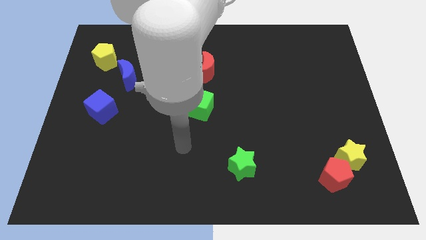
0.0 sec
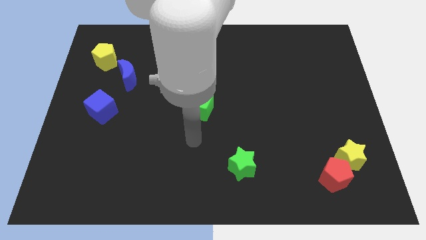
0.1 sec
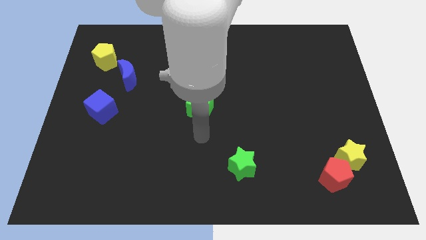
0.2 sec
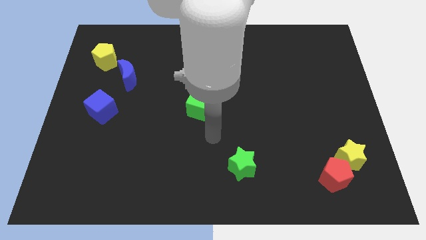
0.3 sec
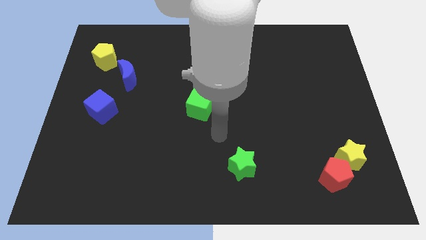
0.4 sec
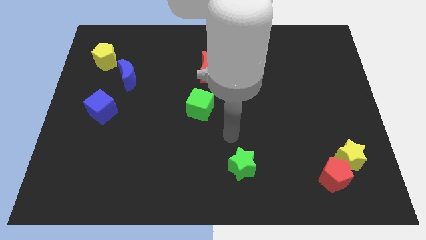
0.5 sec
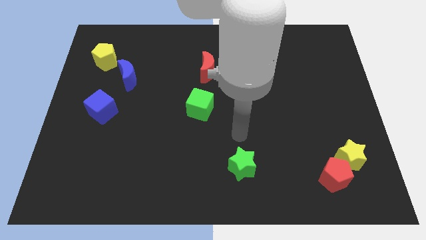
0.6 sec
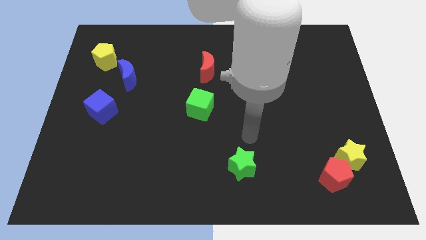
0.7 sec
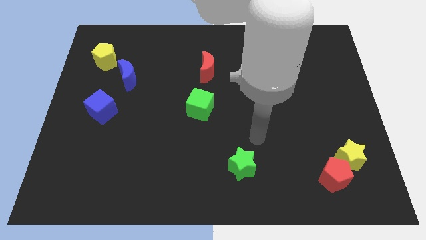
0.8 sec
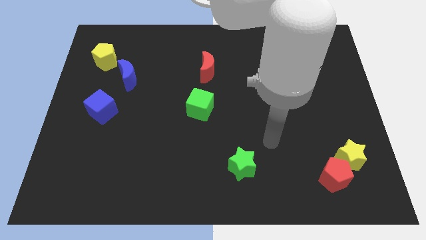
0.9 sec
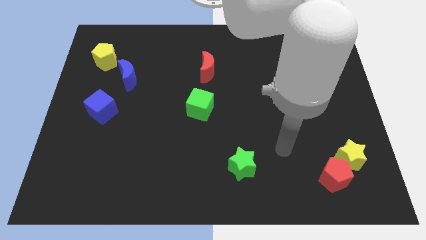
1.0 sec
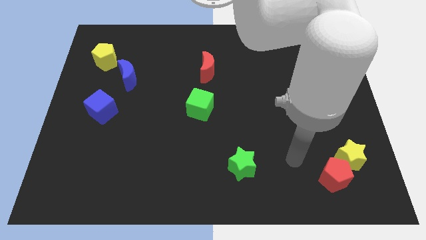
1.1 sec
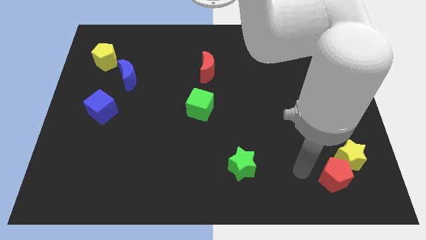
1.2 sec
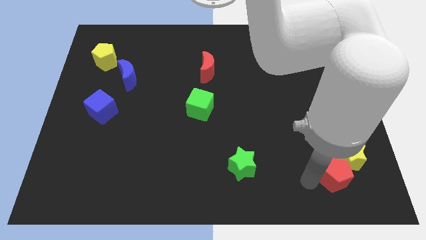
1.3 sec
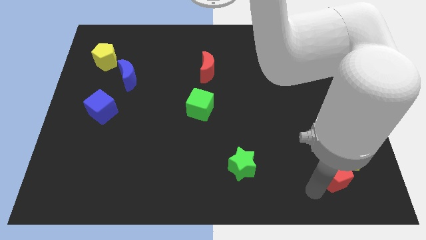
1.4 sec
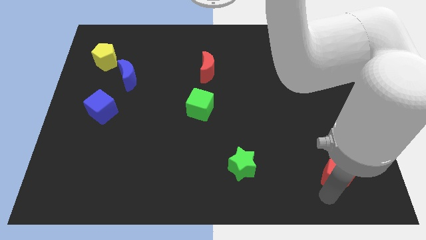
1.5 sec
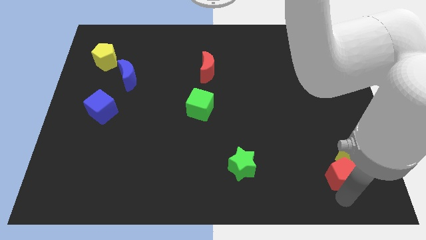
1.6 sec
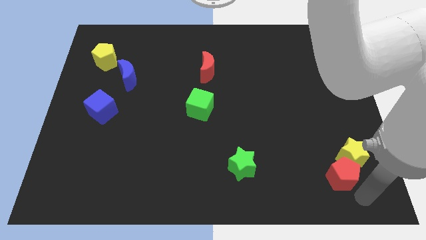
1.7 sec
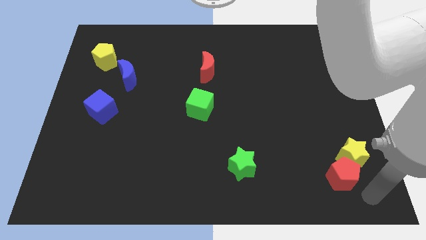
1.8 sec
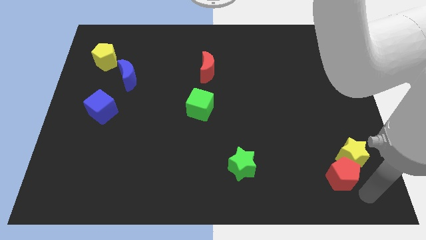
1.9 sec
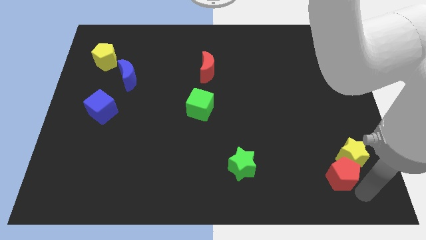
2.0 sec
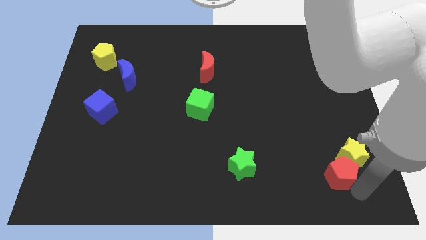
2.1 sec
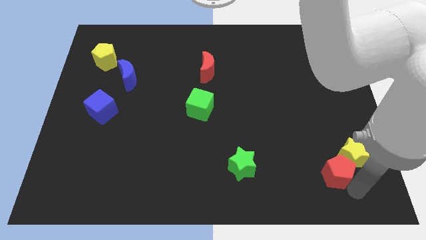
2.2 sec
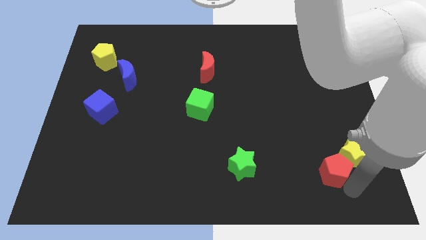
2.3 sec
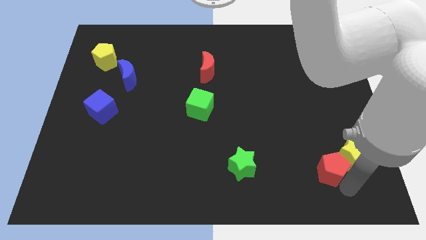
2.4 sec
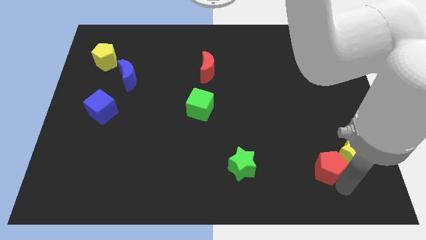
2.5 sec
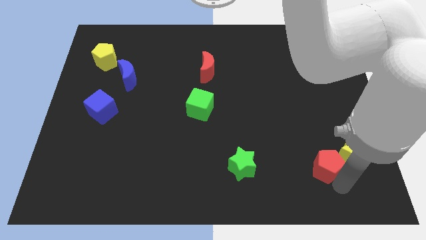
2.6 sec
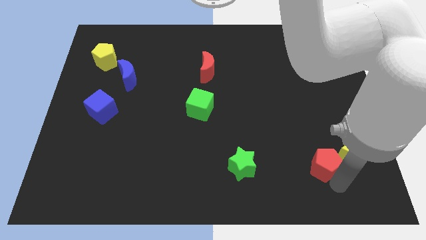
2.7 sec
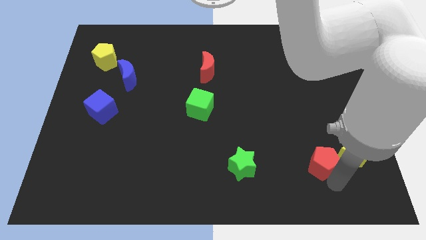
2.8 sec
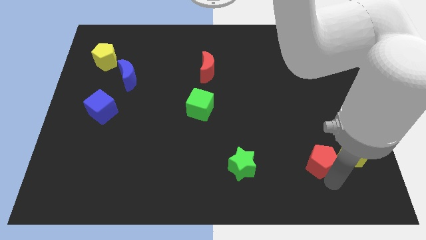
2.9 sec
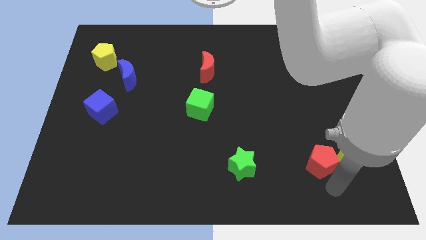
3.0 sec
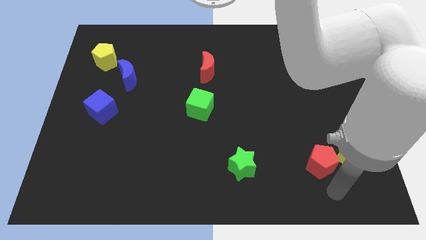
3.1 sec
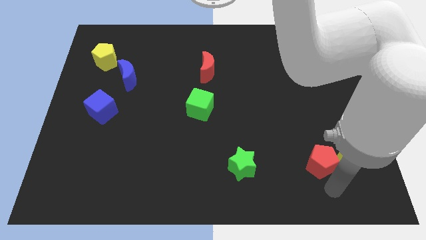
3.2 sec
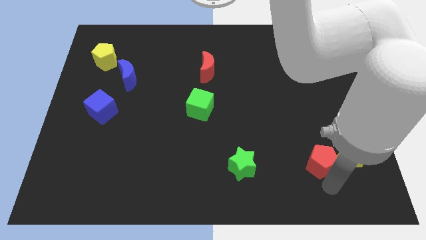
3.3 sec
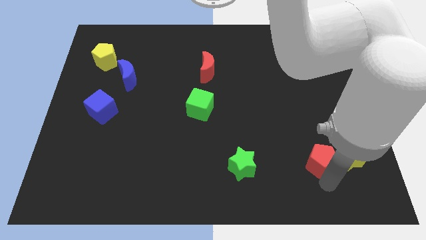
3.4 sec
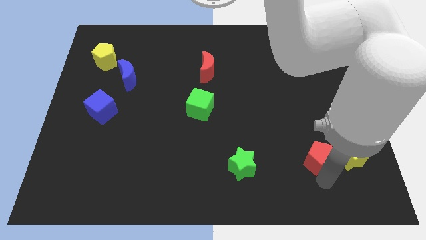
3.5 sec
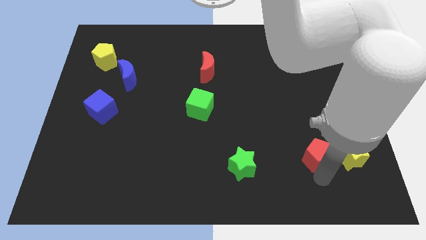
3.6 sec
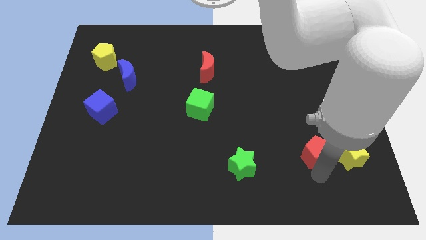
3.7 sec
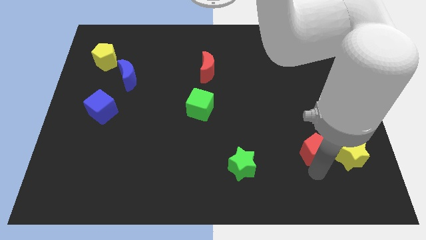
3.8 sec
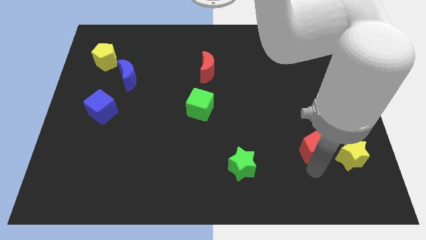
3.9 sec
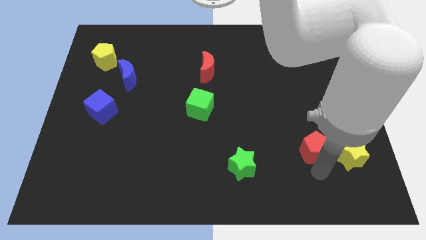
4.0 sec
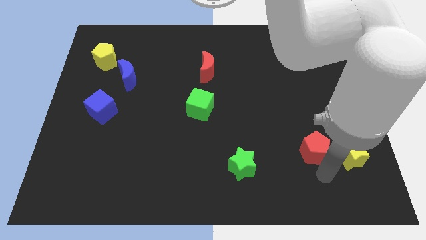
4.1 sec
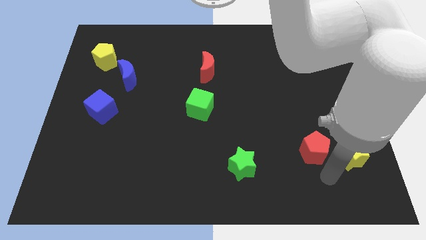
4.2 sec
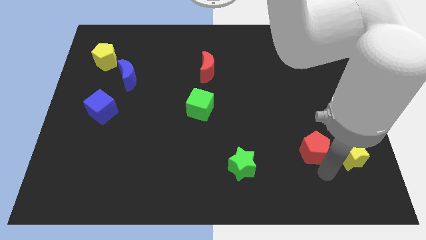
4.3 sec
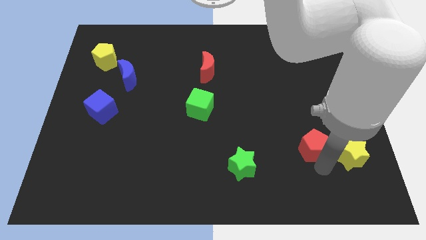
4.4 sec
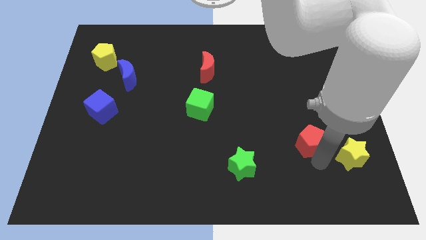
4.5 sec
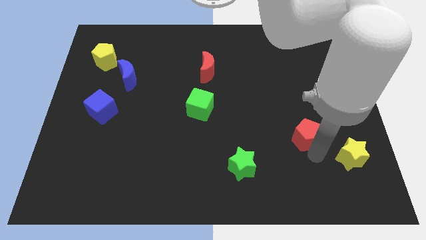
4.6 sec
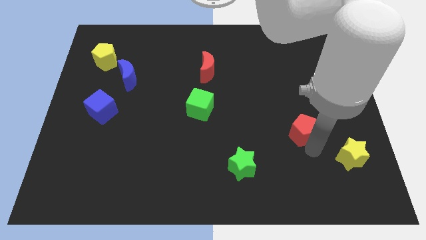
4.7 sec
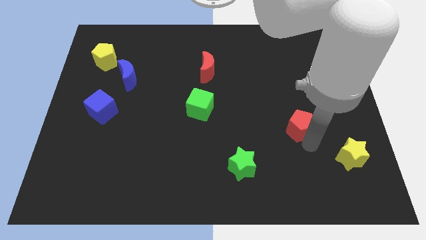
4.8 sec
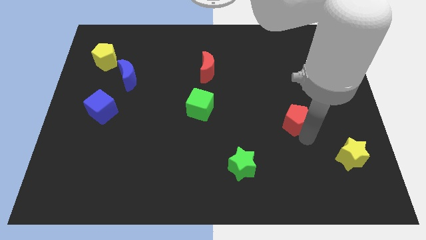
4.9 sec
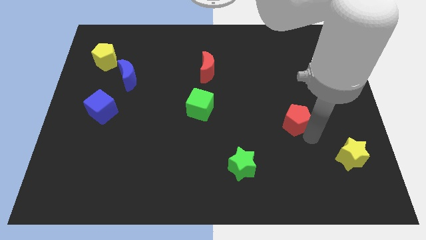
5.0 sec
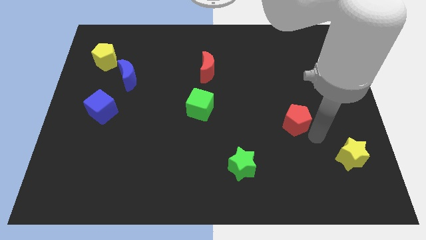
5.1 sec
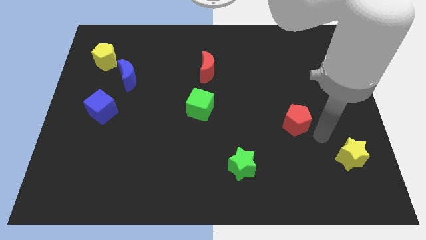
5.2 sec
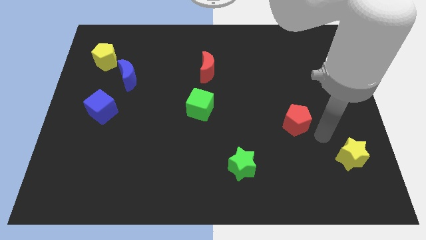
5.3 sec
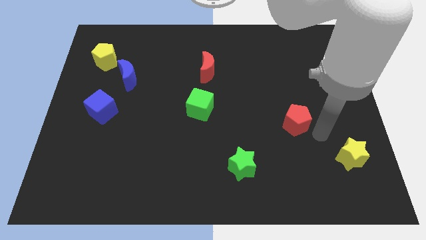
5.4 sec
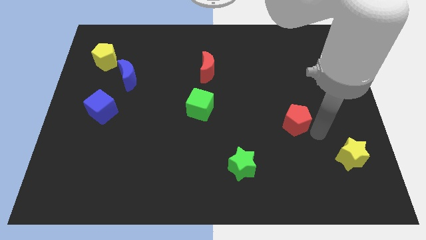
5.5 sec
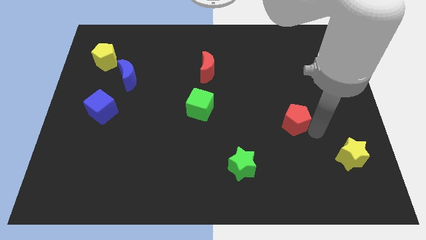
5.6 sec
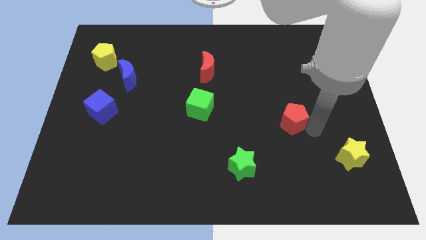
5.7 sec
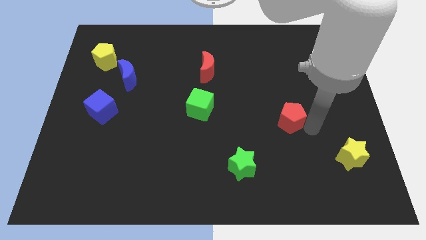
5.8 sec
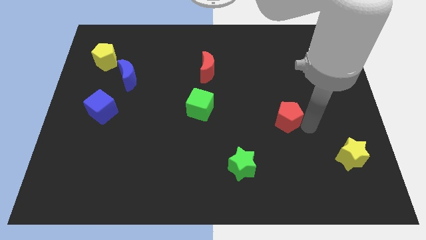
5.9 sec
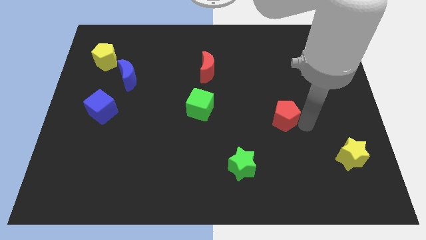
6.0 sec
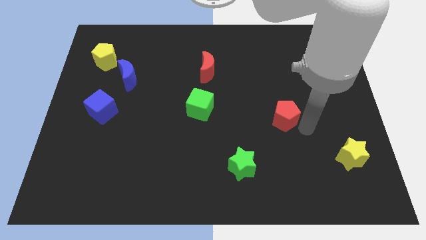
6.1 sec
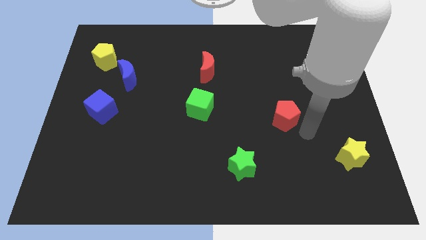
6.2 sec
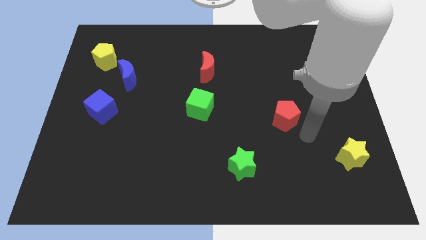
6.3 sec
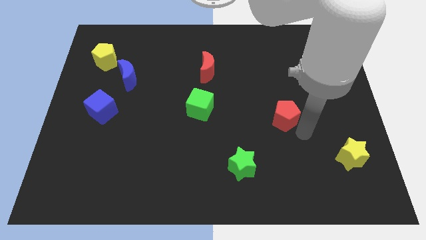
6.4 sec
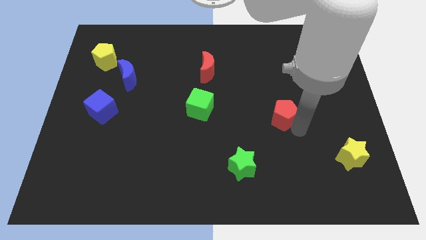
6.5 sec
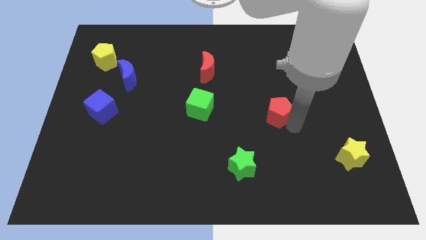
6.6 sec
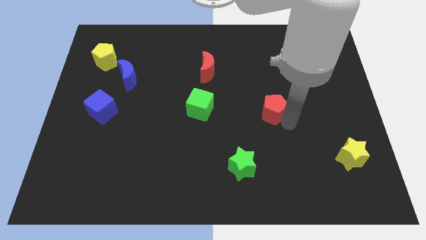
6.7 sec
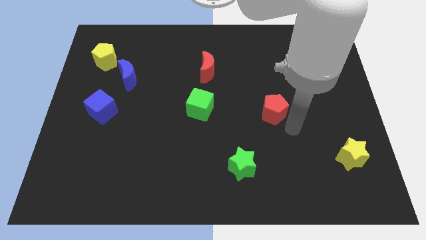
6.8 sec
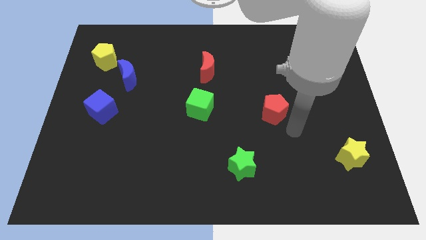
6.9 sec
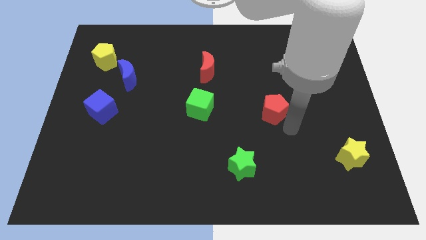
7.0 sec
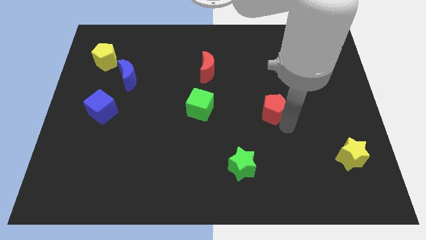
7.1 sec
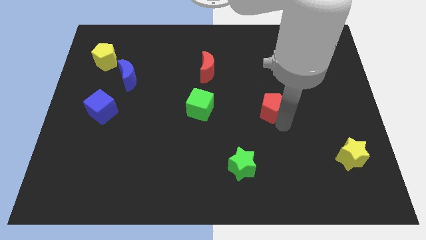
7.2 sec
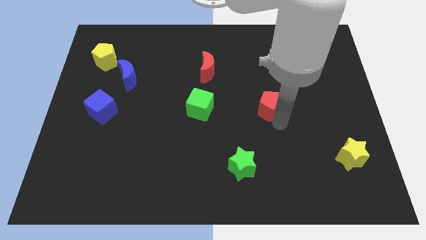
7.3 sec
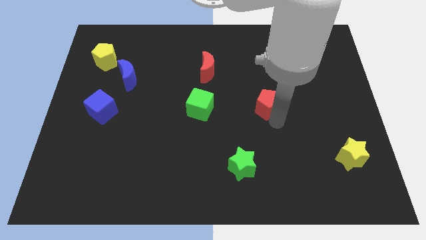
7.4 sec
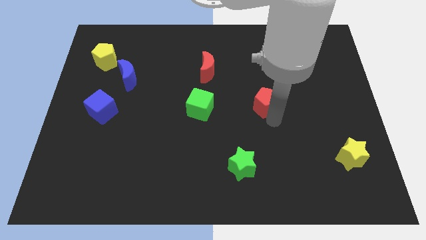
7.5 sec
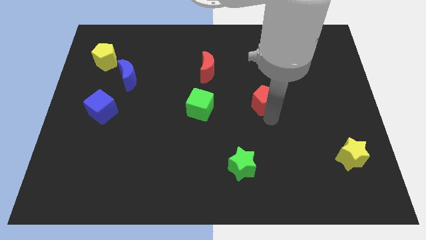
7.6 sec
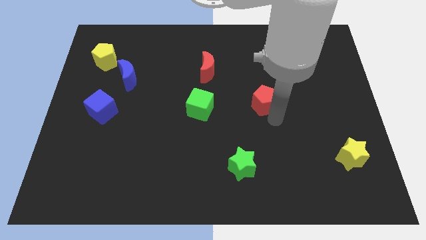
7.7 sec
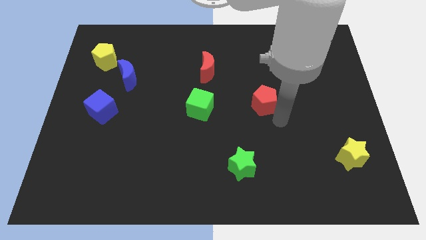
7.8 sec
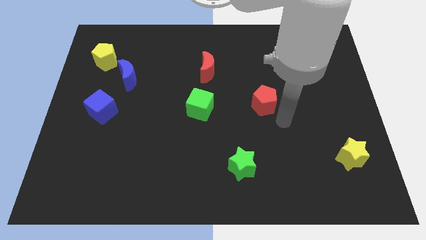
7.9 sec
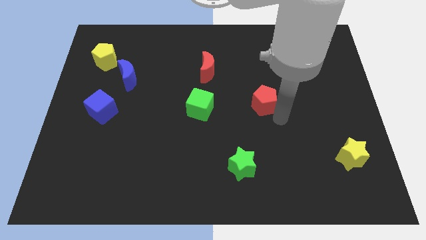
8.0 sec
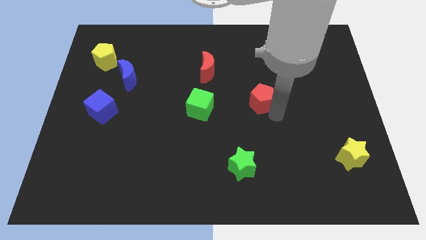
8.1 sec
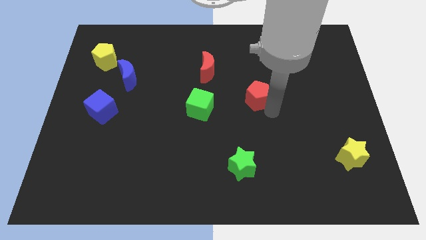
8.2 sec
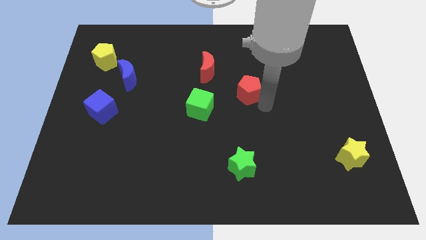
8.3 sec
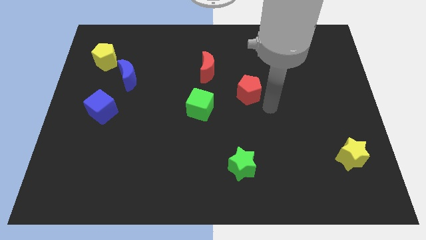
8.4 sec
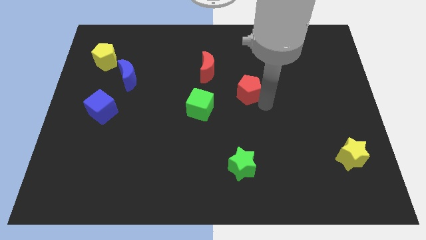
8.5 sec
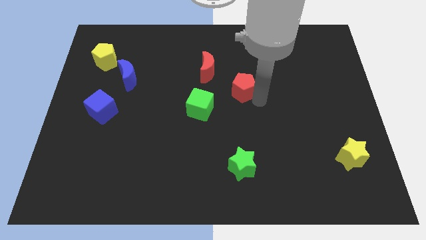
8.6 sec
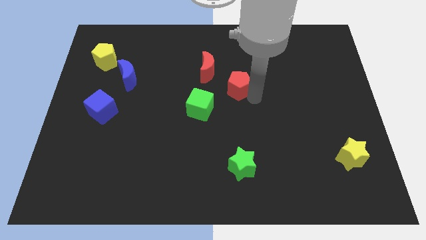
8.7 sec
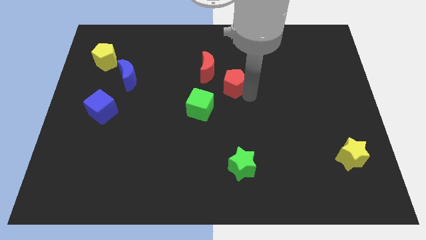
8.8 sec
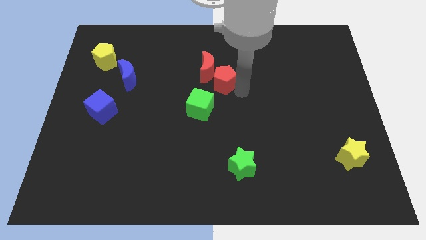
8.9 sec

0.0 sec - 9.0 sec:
slide the red pentagon next to the red moon
